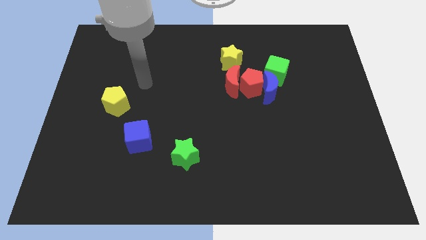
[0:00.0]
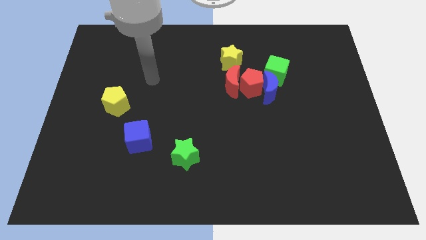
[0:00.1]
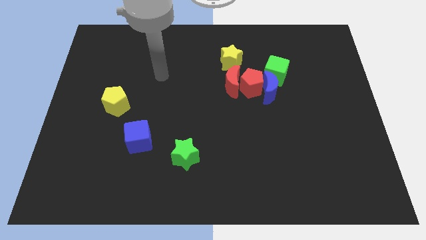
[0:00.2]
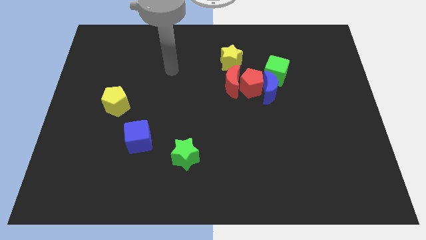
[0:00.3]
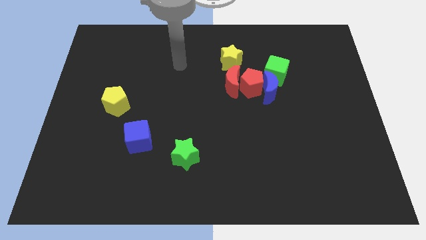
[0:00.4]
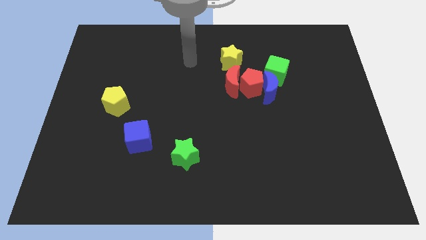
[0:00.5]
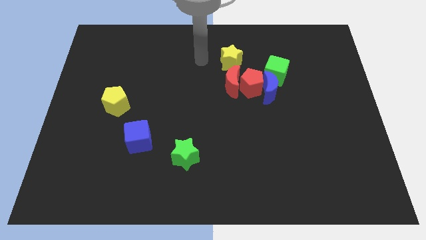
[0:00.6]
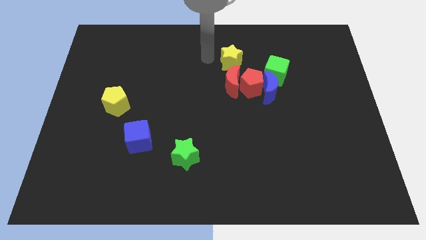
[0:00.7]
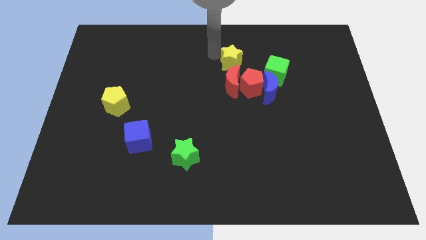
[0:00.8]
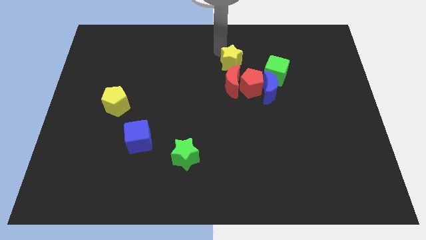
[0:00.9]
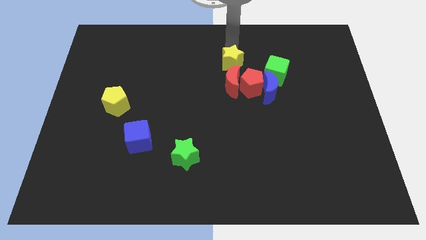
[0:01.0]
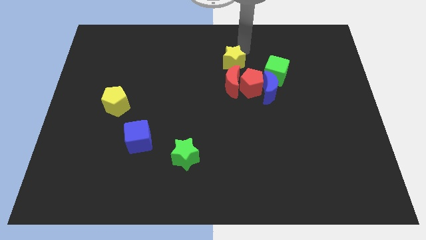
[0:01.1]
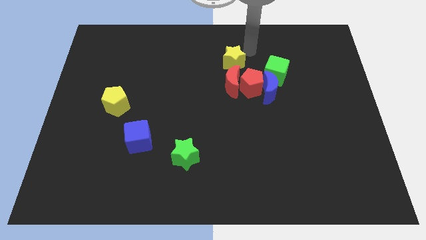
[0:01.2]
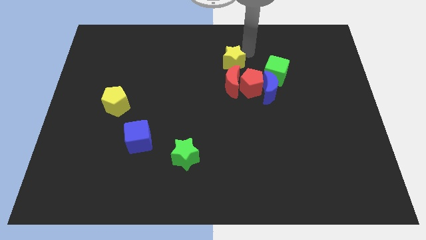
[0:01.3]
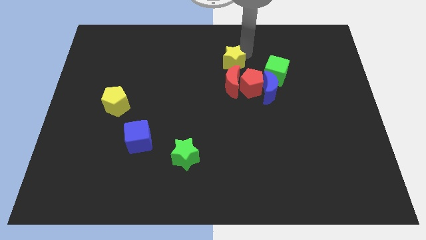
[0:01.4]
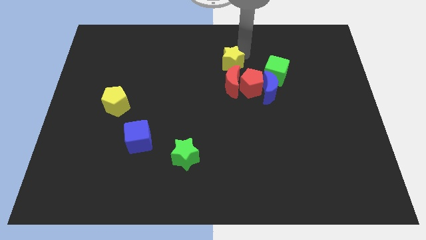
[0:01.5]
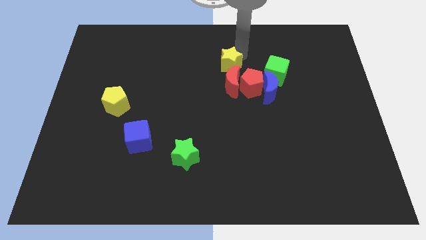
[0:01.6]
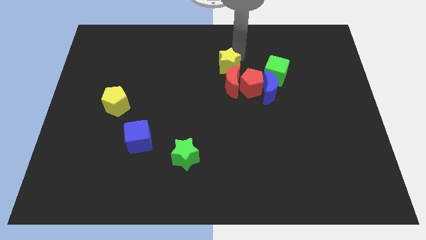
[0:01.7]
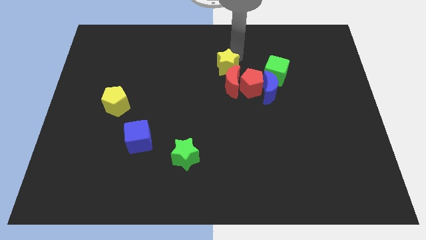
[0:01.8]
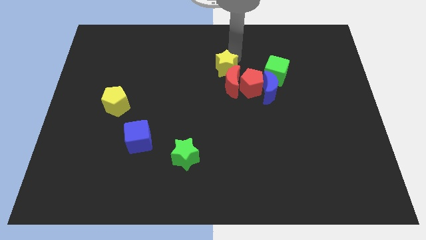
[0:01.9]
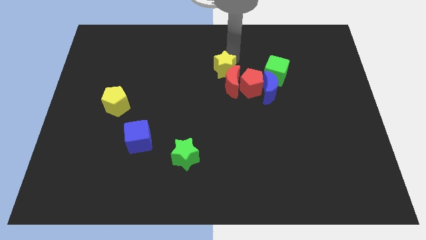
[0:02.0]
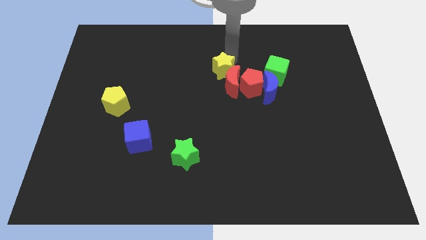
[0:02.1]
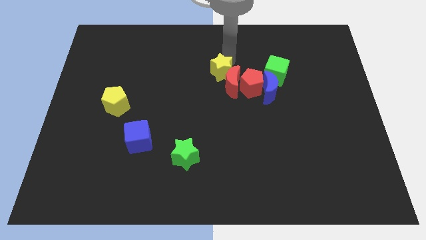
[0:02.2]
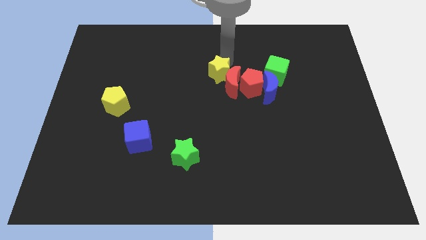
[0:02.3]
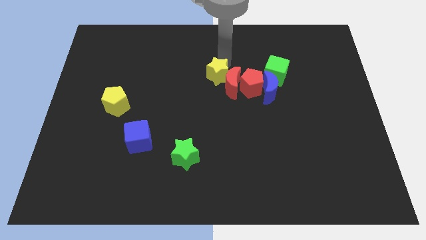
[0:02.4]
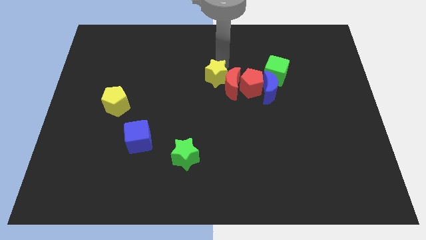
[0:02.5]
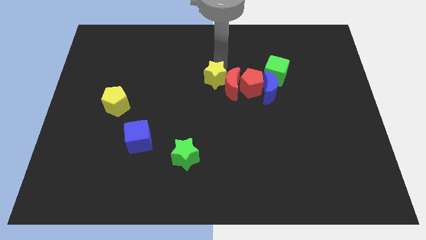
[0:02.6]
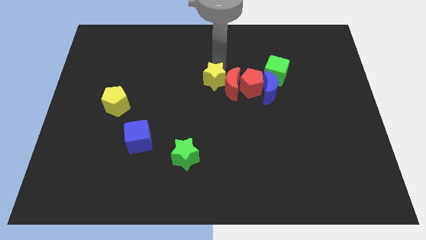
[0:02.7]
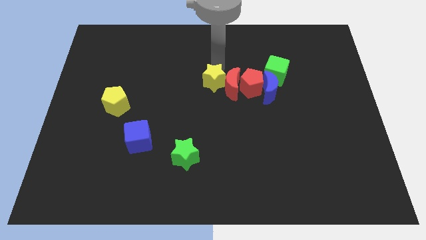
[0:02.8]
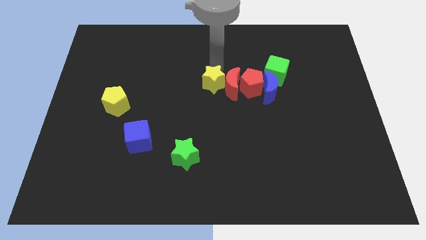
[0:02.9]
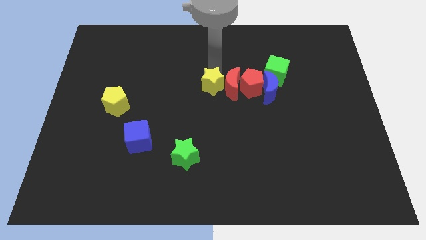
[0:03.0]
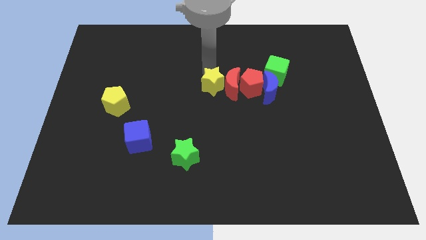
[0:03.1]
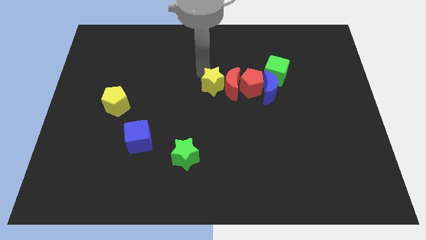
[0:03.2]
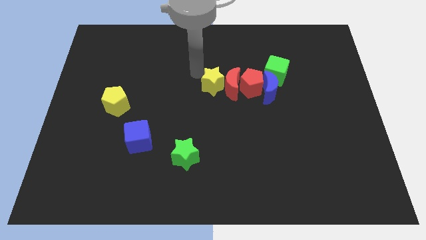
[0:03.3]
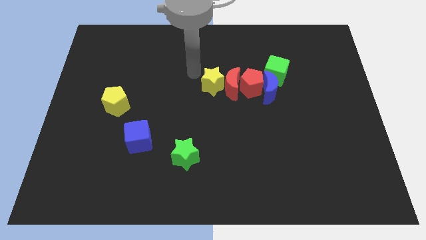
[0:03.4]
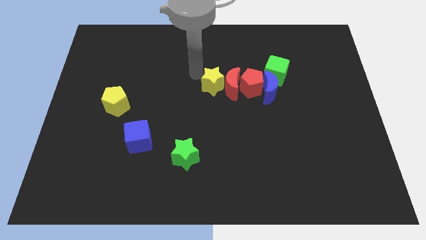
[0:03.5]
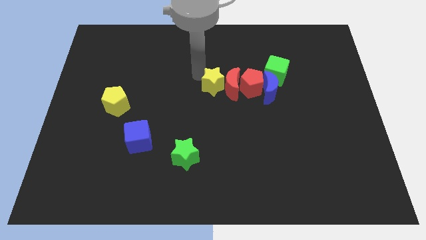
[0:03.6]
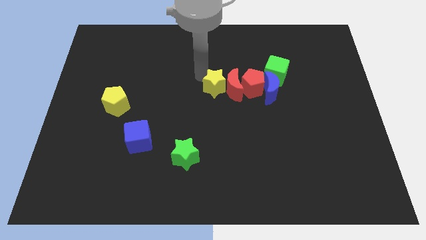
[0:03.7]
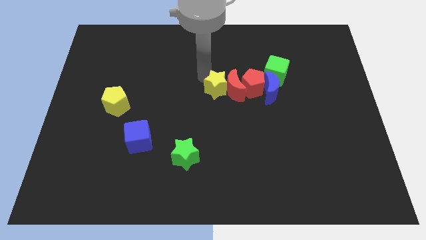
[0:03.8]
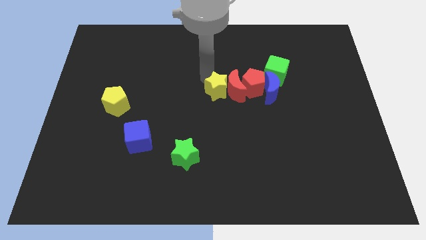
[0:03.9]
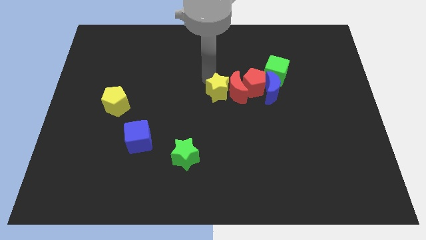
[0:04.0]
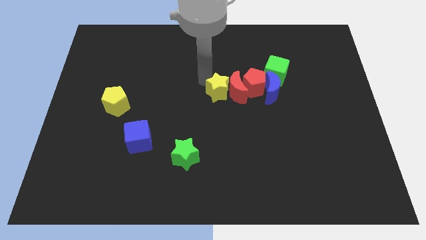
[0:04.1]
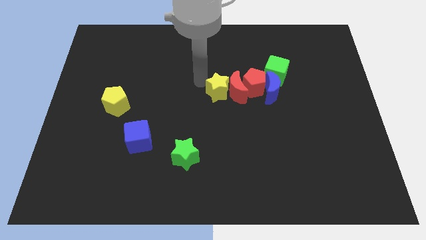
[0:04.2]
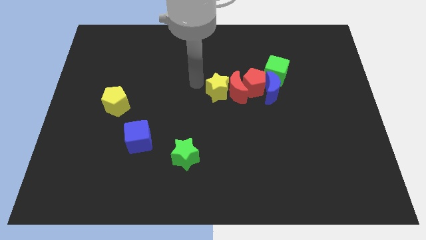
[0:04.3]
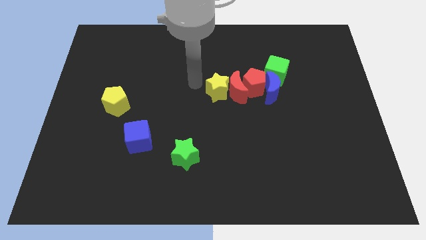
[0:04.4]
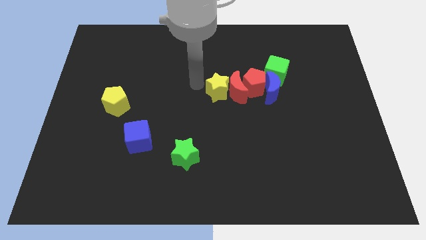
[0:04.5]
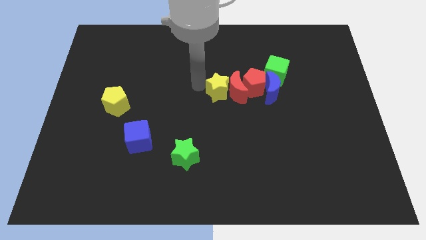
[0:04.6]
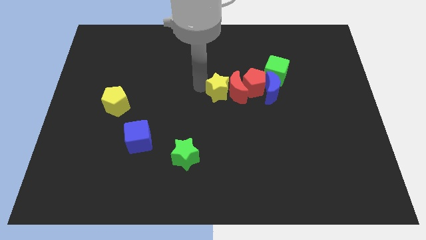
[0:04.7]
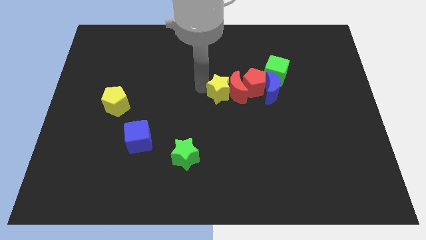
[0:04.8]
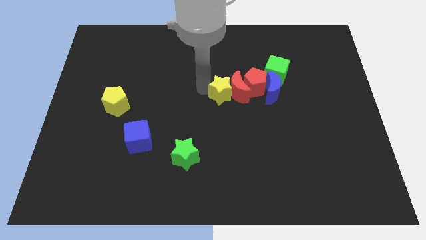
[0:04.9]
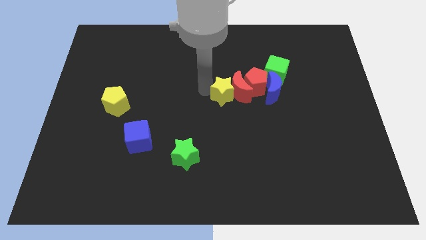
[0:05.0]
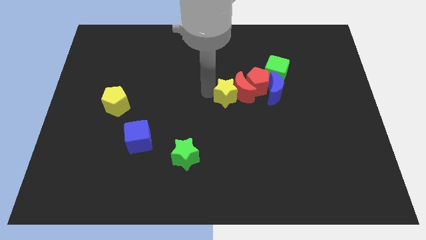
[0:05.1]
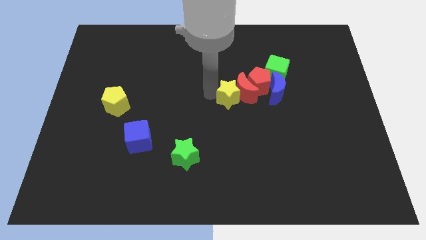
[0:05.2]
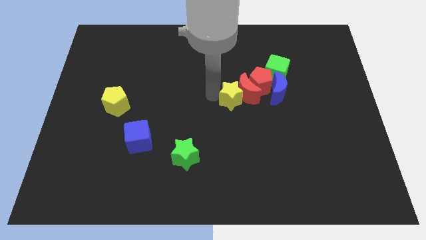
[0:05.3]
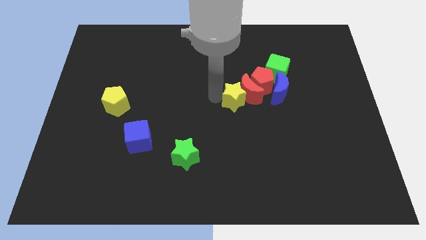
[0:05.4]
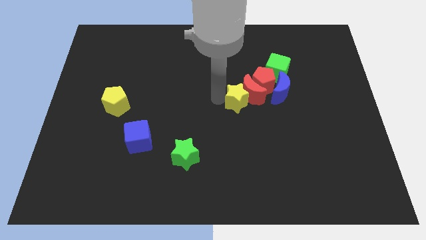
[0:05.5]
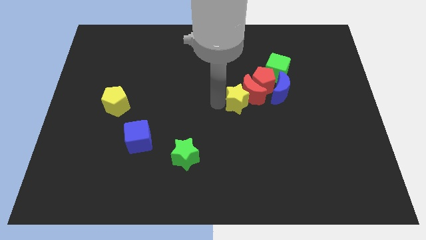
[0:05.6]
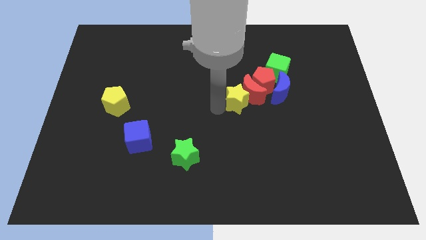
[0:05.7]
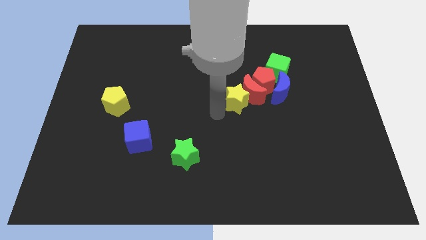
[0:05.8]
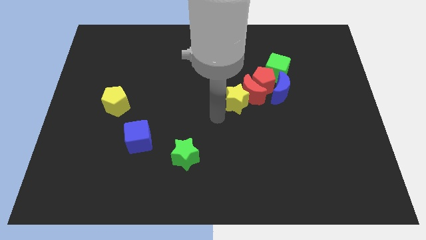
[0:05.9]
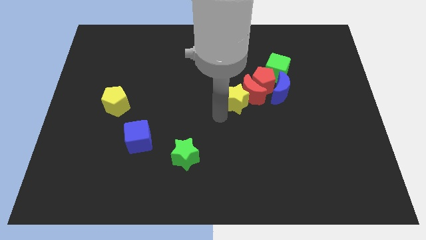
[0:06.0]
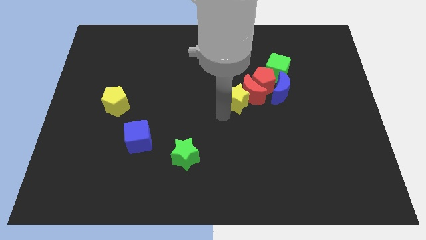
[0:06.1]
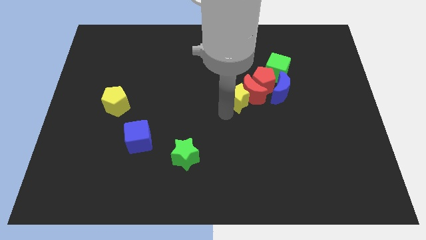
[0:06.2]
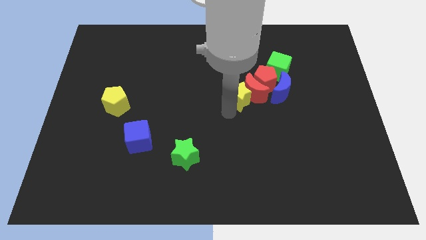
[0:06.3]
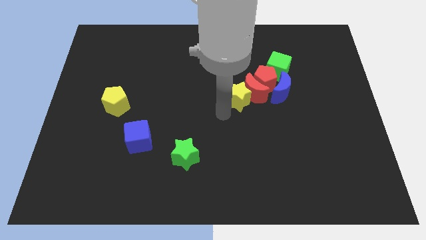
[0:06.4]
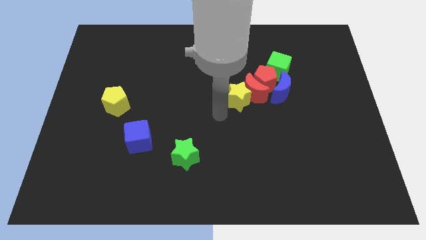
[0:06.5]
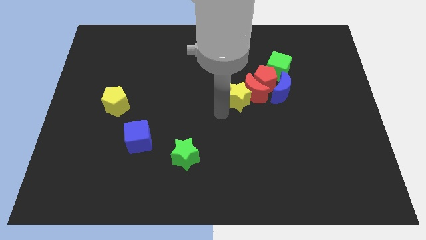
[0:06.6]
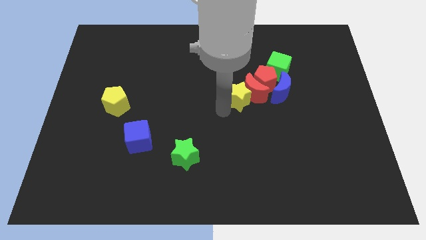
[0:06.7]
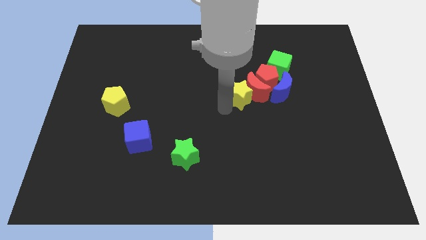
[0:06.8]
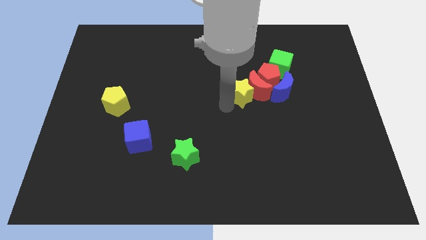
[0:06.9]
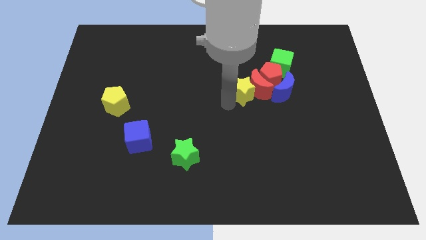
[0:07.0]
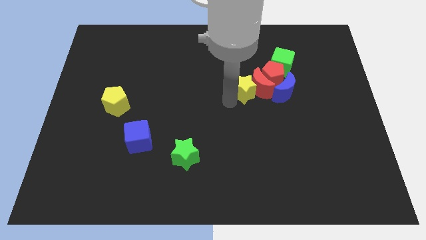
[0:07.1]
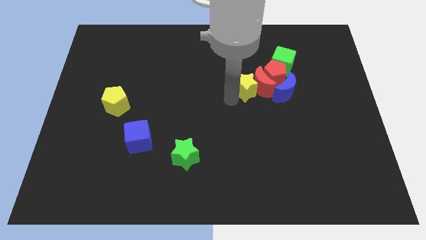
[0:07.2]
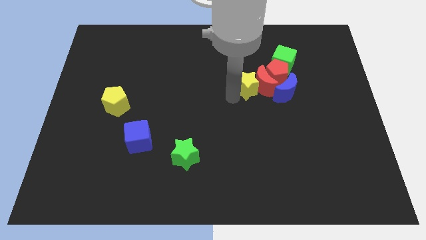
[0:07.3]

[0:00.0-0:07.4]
slide the yellow star to the bottom left of the green cube
